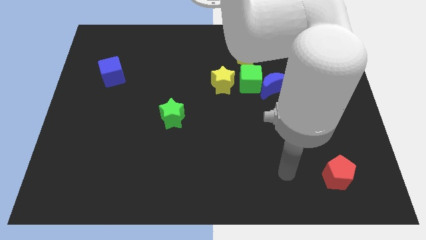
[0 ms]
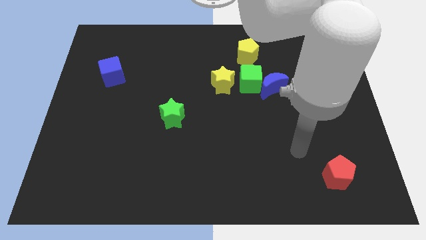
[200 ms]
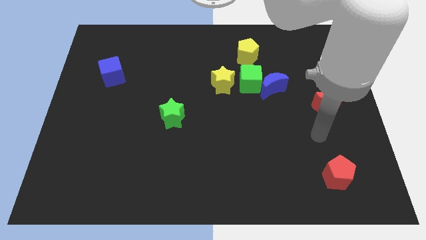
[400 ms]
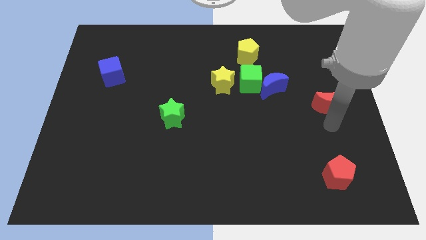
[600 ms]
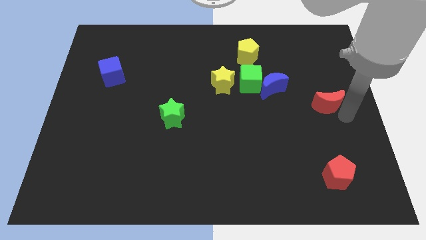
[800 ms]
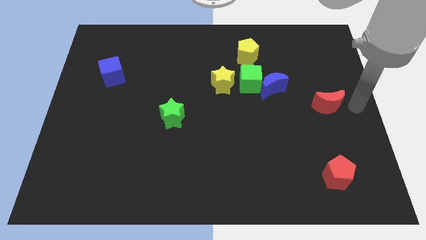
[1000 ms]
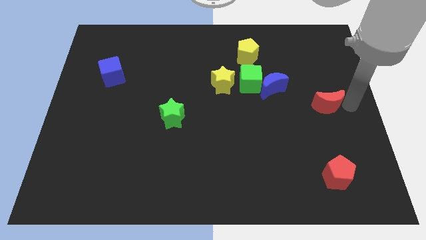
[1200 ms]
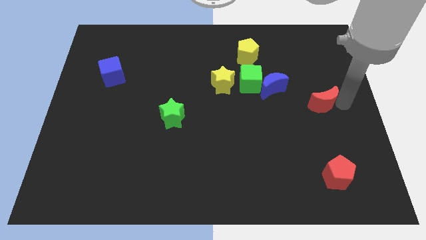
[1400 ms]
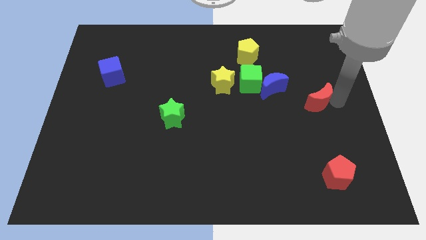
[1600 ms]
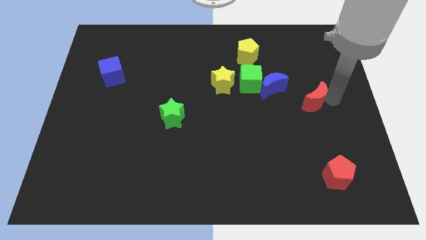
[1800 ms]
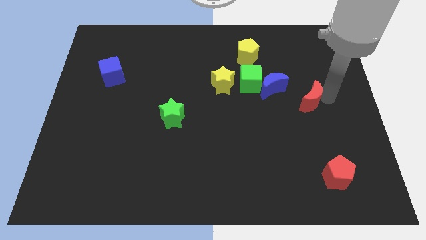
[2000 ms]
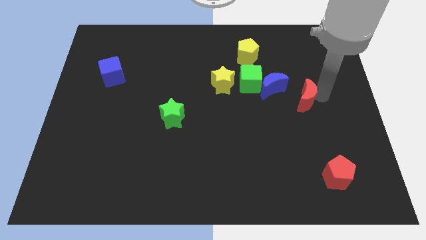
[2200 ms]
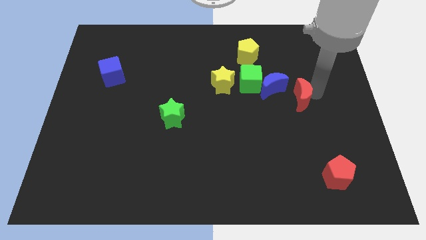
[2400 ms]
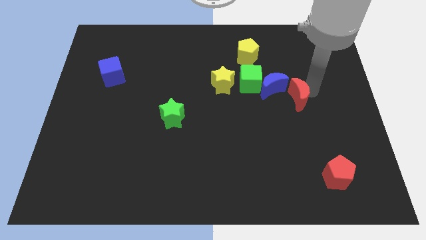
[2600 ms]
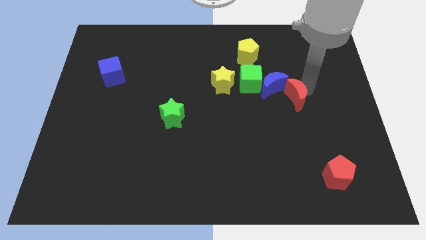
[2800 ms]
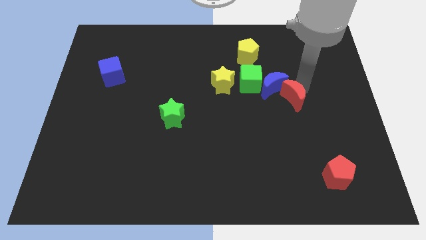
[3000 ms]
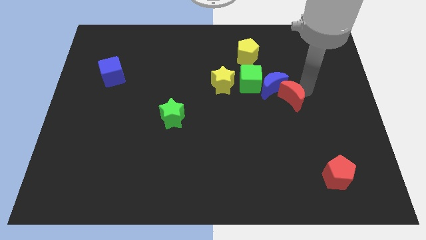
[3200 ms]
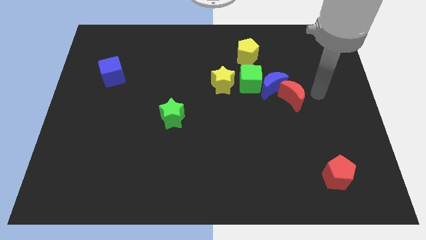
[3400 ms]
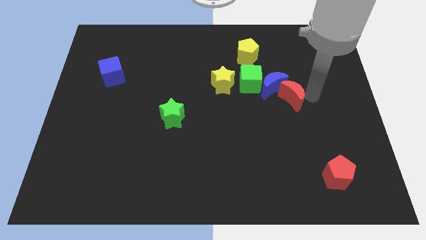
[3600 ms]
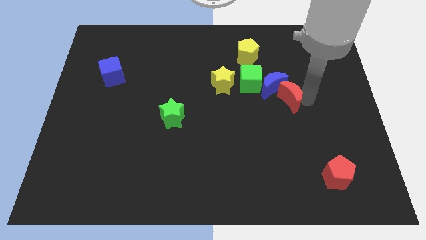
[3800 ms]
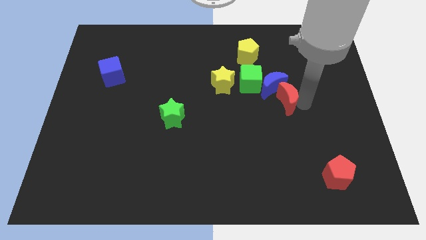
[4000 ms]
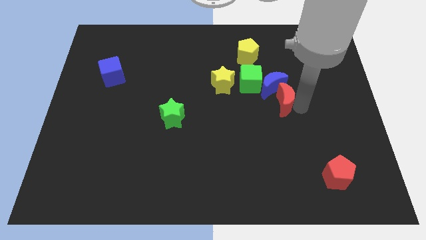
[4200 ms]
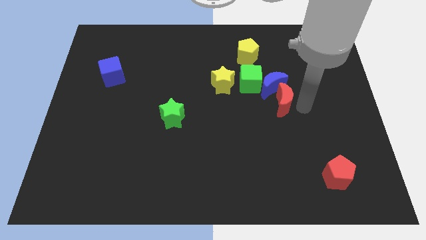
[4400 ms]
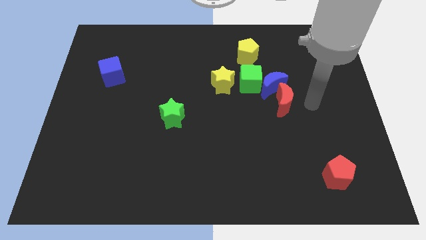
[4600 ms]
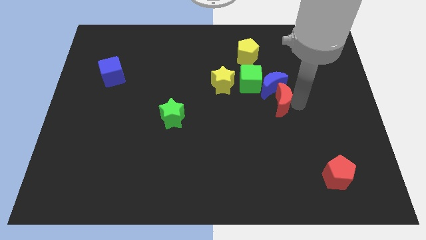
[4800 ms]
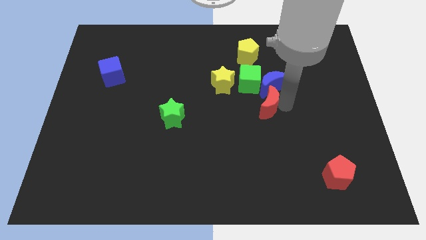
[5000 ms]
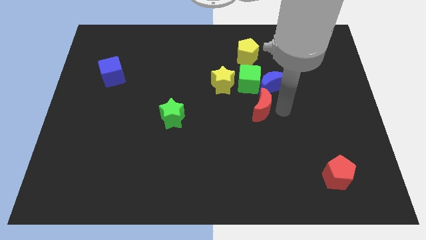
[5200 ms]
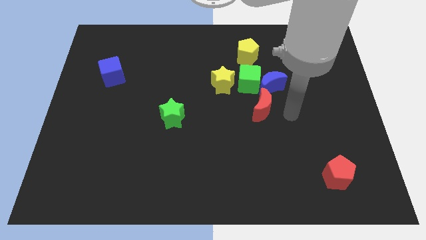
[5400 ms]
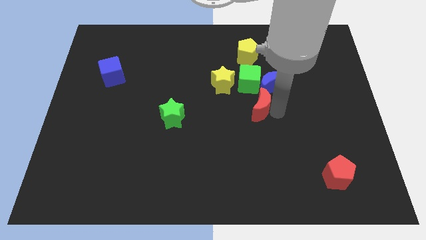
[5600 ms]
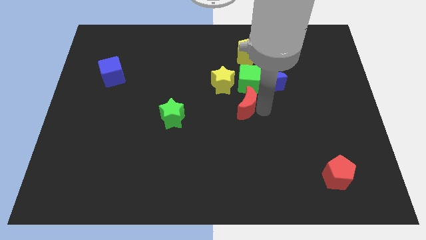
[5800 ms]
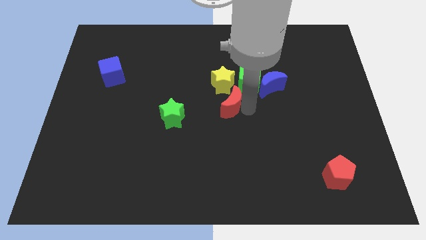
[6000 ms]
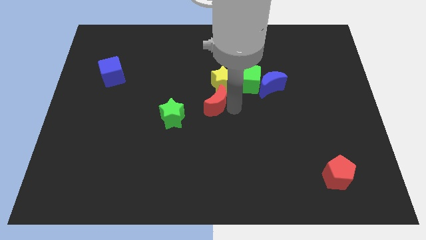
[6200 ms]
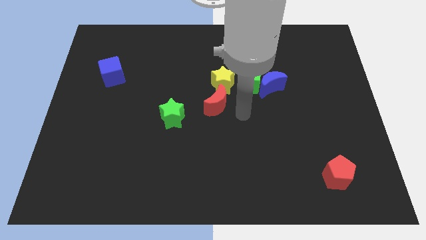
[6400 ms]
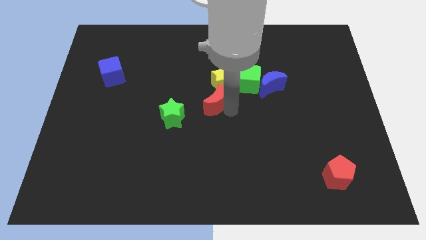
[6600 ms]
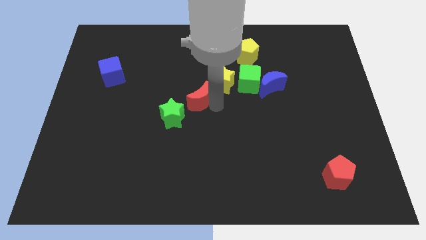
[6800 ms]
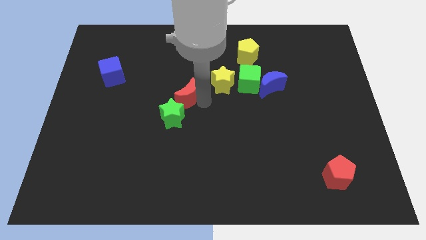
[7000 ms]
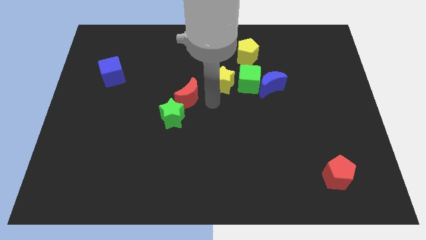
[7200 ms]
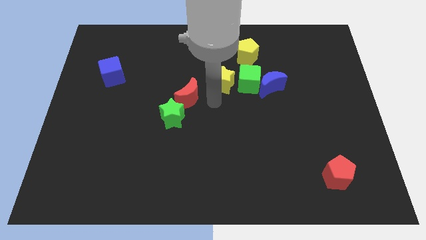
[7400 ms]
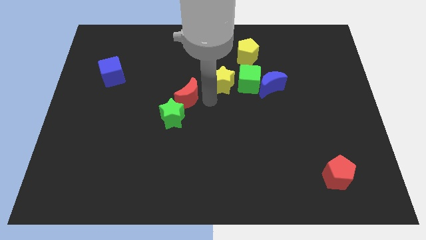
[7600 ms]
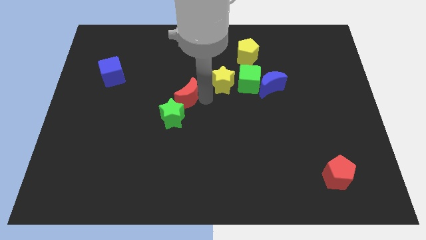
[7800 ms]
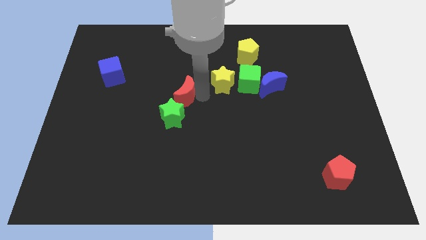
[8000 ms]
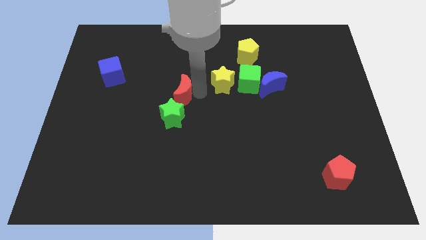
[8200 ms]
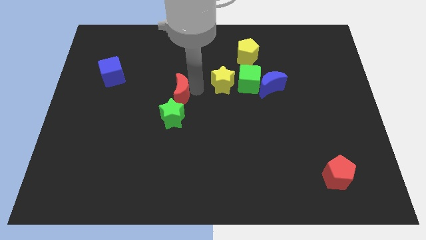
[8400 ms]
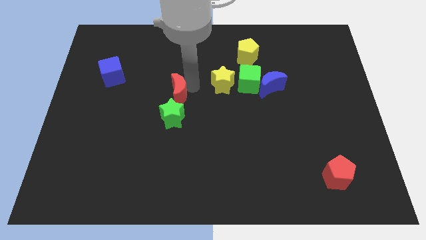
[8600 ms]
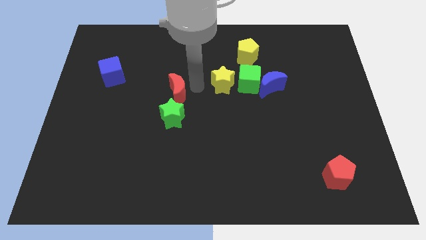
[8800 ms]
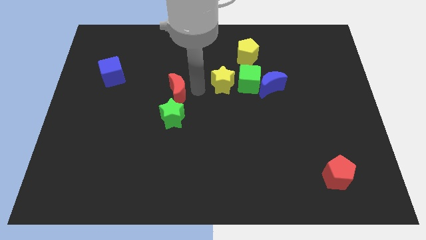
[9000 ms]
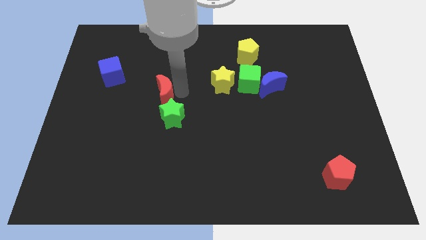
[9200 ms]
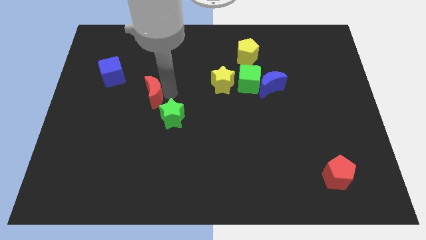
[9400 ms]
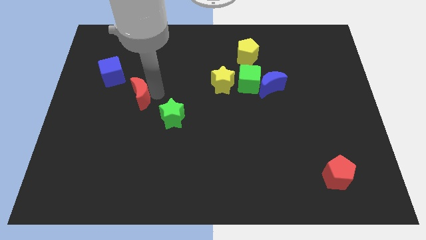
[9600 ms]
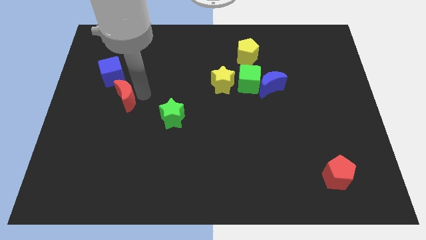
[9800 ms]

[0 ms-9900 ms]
push the red moon to the bottom of the blue cube

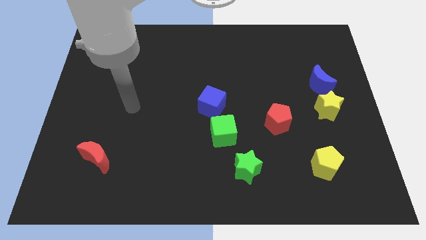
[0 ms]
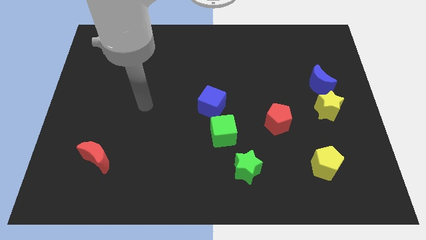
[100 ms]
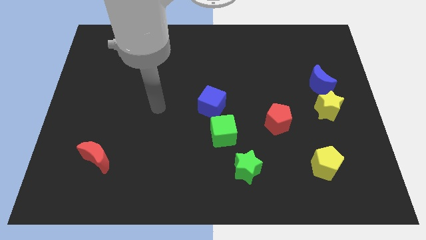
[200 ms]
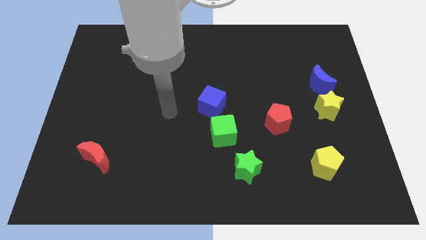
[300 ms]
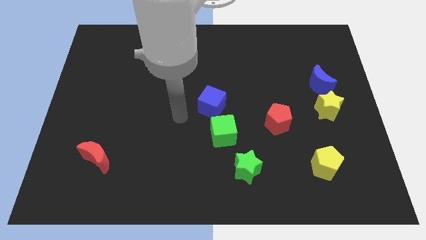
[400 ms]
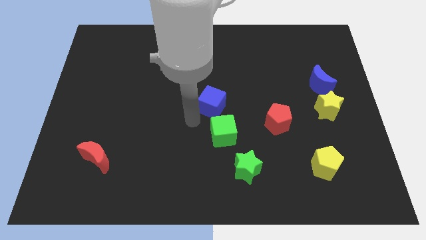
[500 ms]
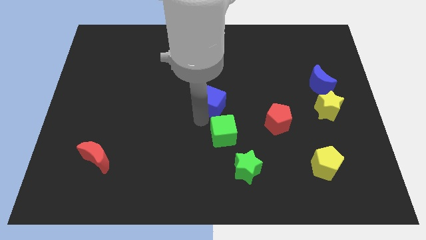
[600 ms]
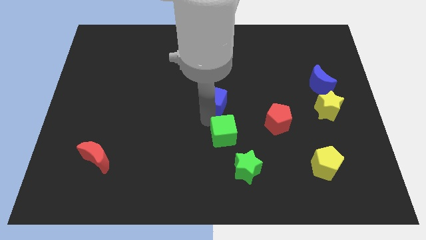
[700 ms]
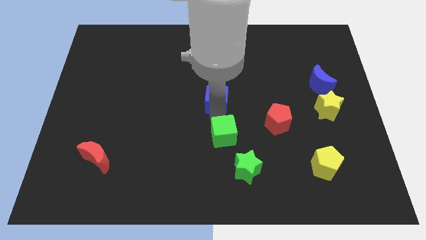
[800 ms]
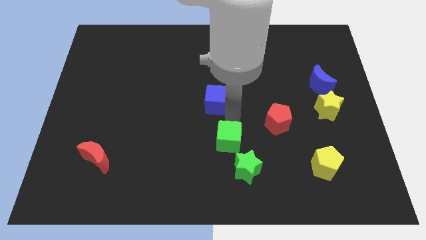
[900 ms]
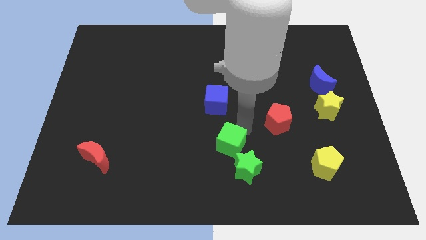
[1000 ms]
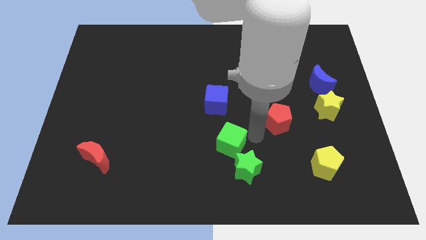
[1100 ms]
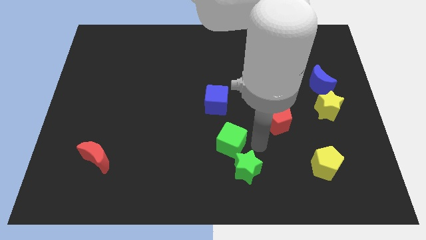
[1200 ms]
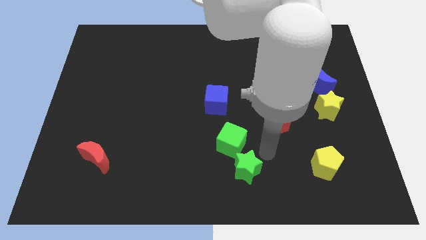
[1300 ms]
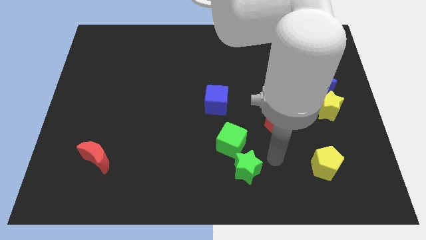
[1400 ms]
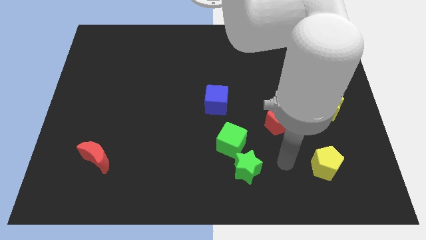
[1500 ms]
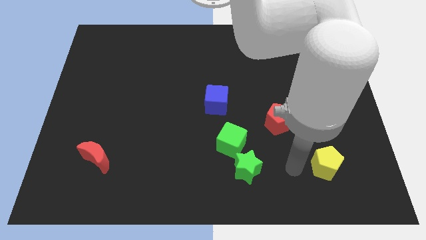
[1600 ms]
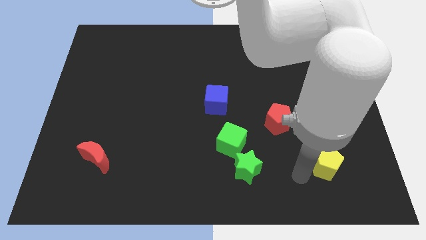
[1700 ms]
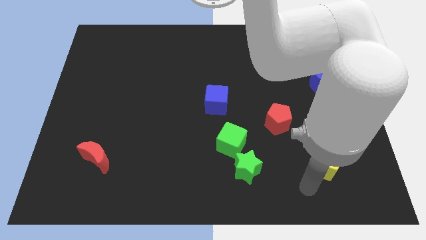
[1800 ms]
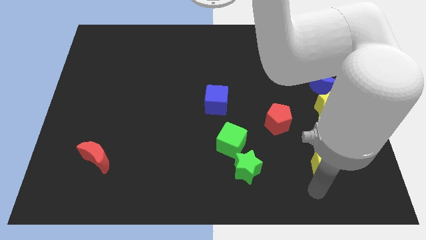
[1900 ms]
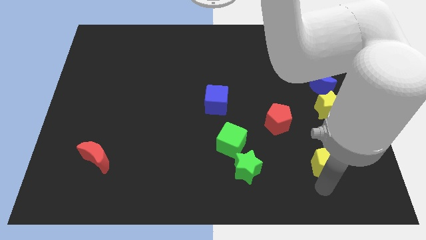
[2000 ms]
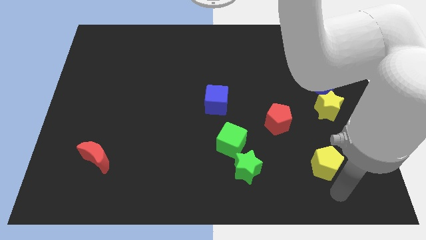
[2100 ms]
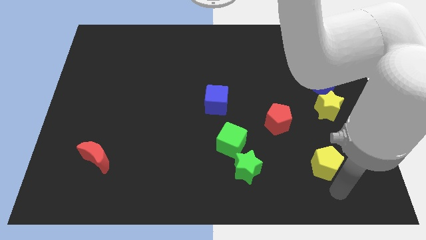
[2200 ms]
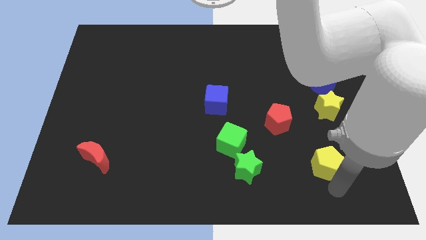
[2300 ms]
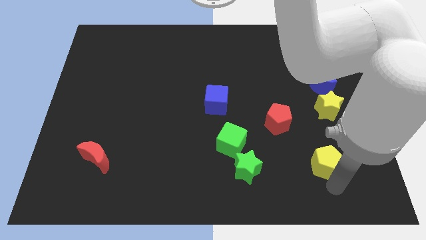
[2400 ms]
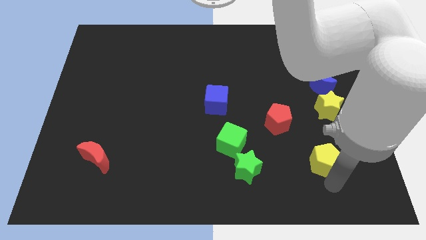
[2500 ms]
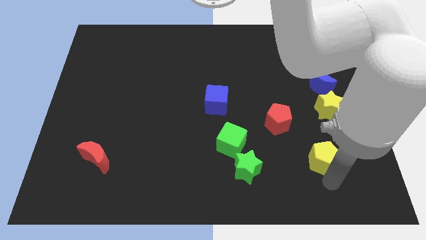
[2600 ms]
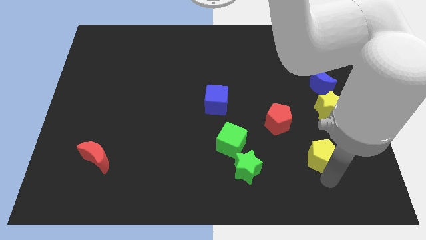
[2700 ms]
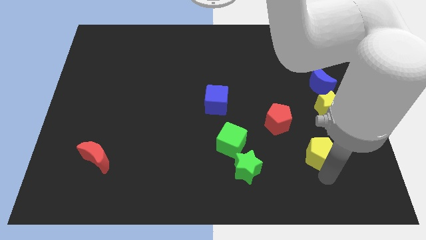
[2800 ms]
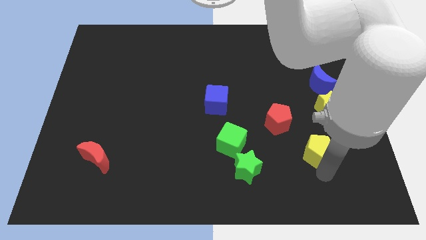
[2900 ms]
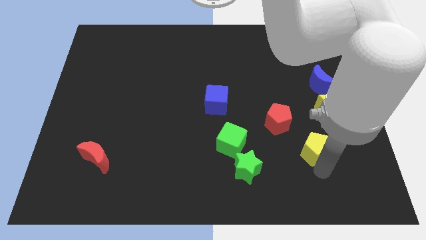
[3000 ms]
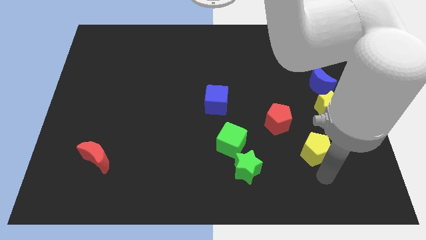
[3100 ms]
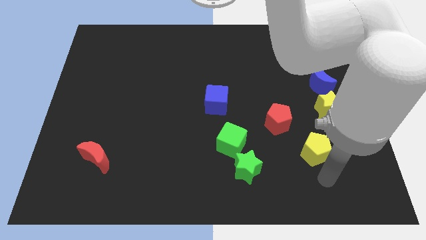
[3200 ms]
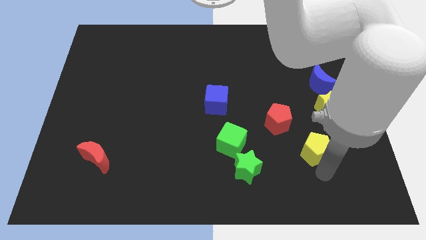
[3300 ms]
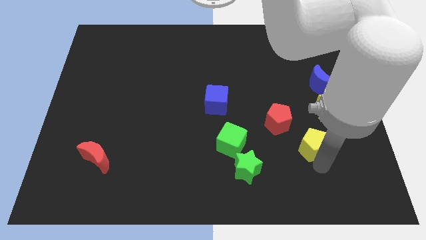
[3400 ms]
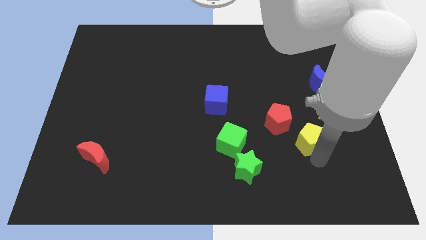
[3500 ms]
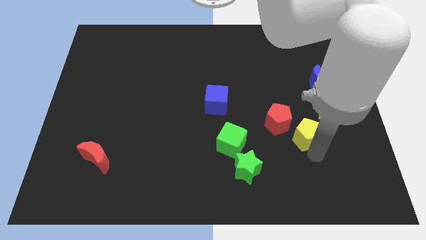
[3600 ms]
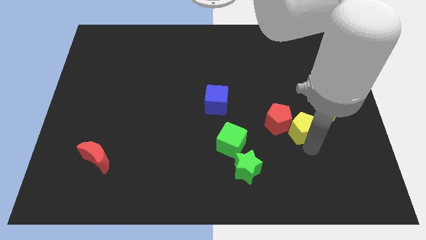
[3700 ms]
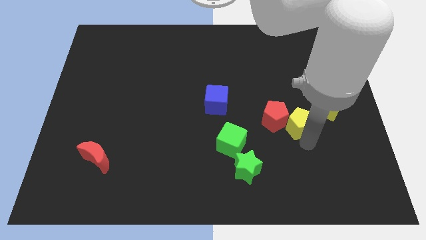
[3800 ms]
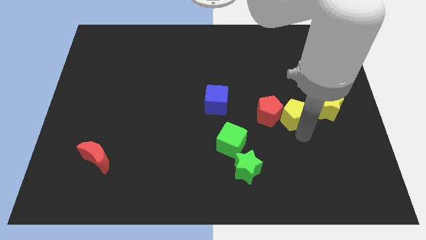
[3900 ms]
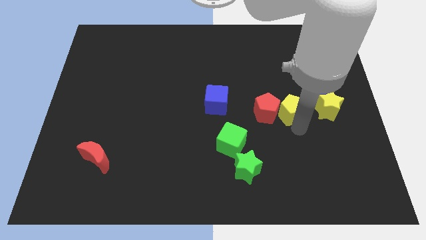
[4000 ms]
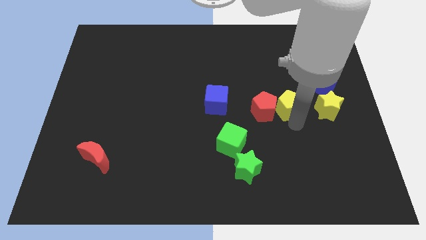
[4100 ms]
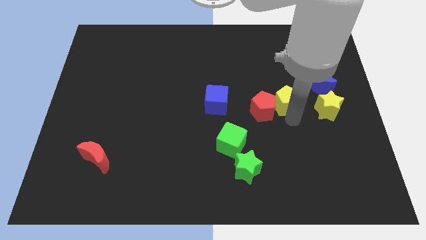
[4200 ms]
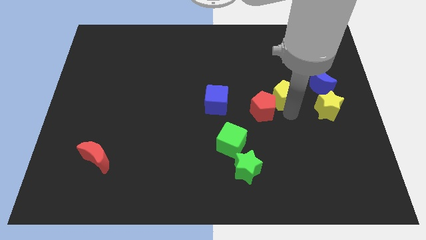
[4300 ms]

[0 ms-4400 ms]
put the yellow pentagon to the left side of the blue moon
